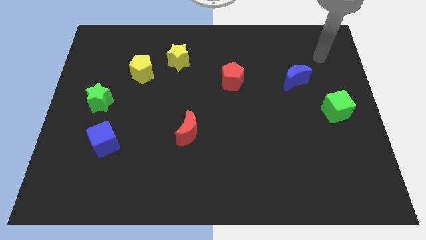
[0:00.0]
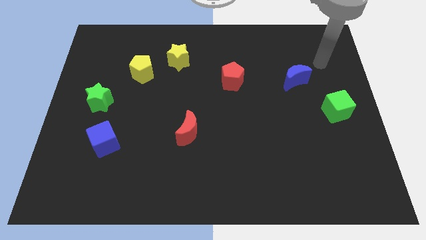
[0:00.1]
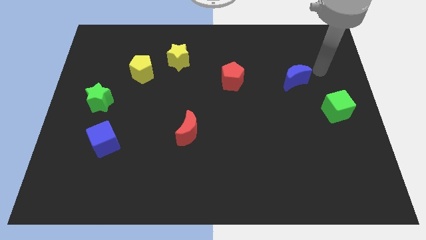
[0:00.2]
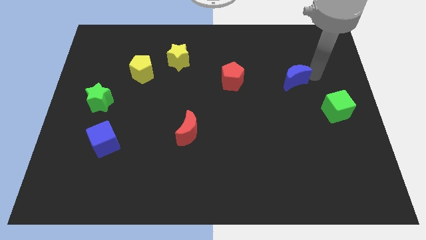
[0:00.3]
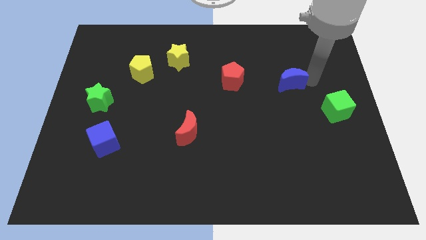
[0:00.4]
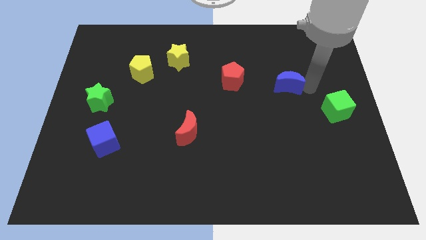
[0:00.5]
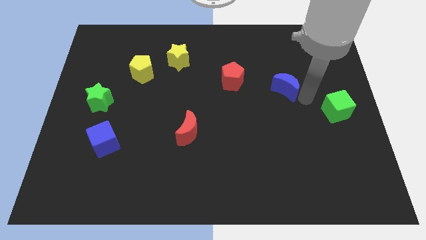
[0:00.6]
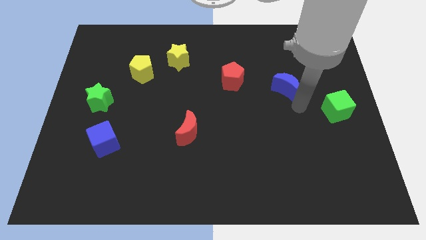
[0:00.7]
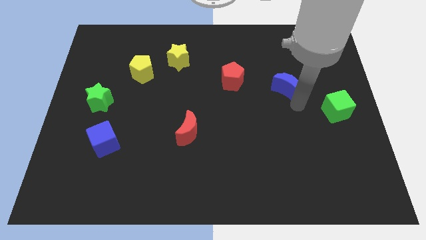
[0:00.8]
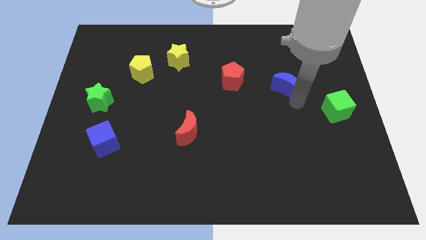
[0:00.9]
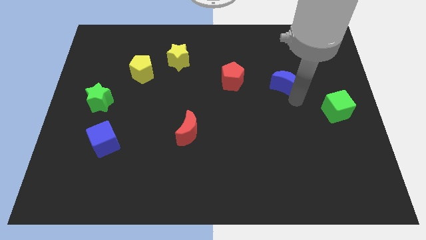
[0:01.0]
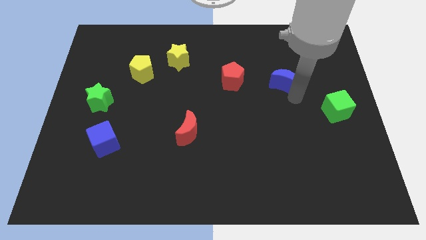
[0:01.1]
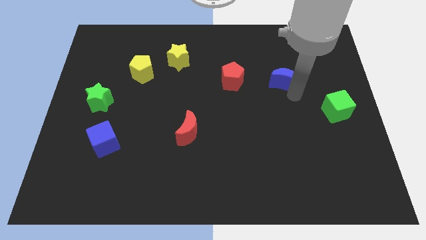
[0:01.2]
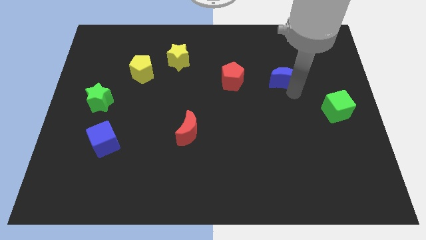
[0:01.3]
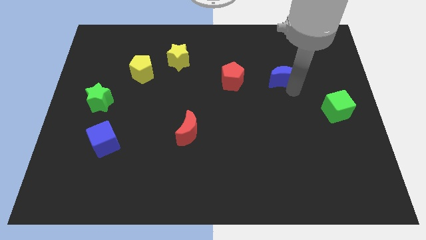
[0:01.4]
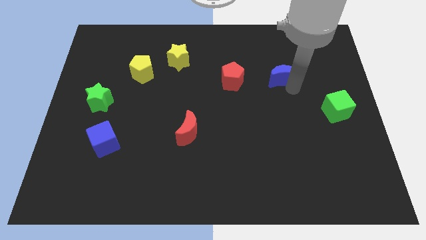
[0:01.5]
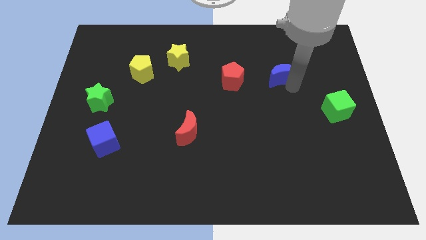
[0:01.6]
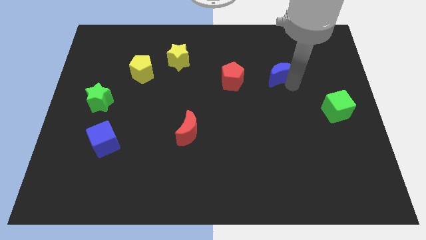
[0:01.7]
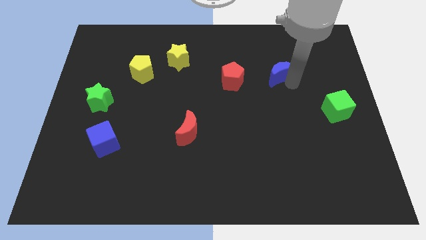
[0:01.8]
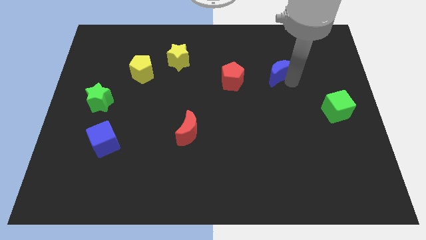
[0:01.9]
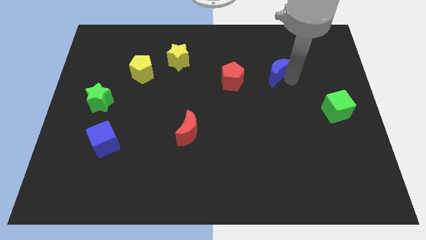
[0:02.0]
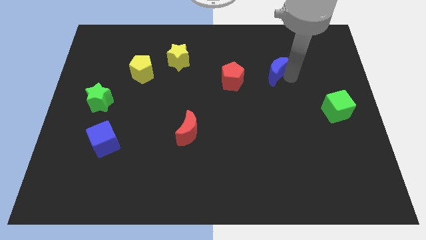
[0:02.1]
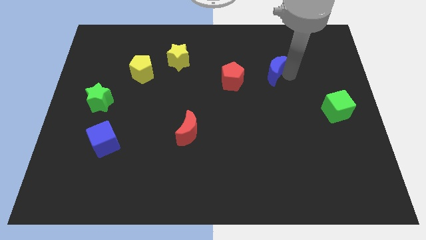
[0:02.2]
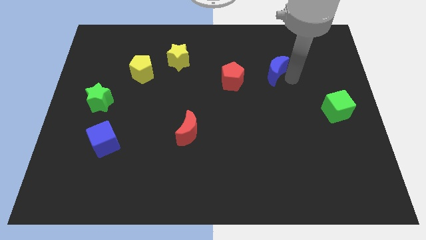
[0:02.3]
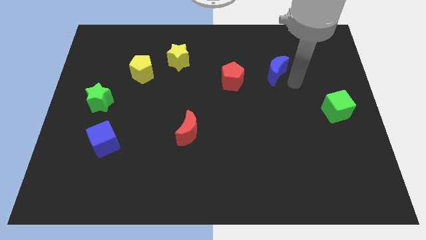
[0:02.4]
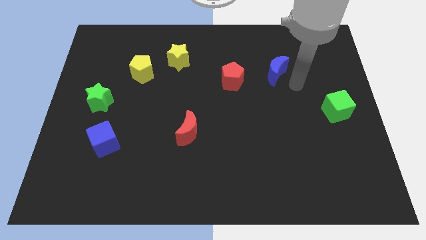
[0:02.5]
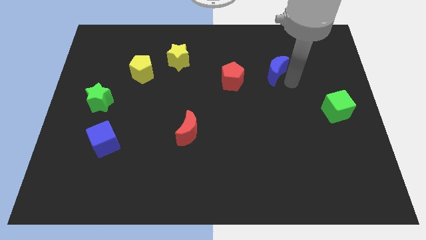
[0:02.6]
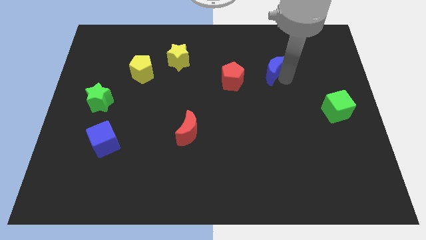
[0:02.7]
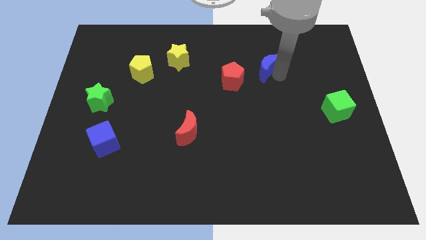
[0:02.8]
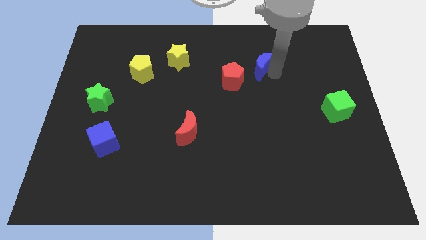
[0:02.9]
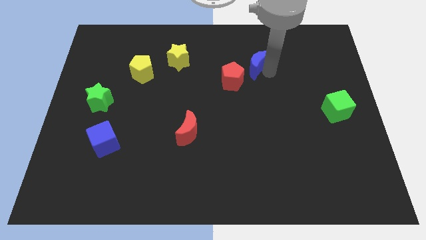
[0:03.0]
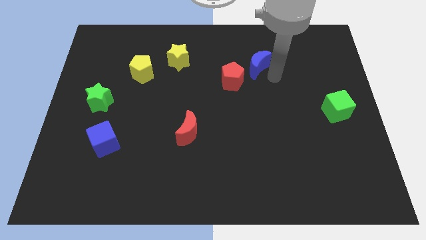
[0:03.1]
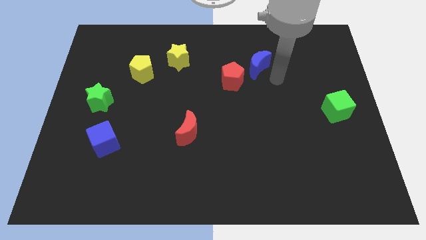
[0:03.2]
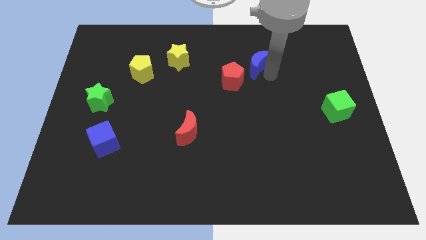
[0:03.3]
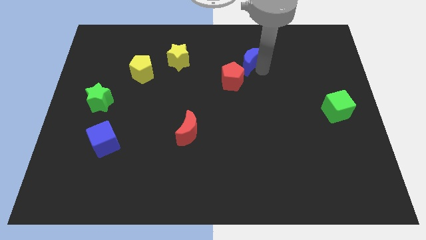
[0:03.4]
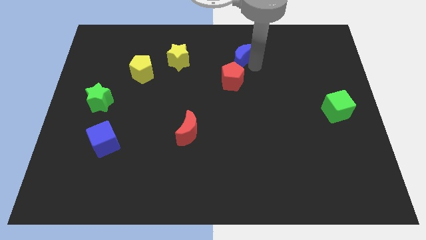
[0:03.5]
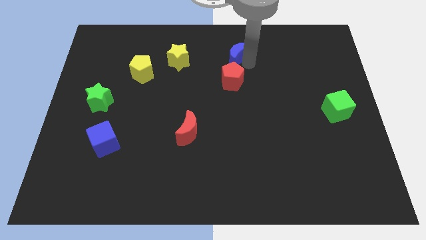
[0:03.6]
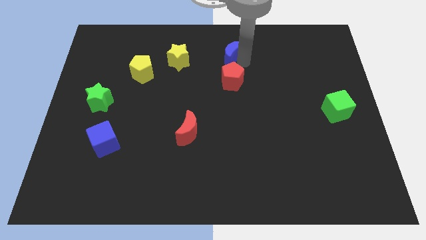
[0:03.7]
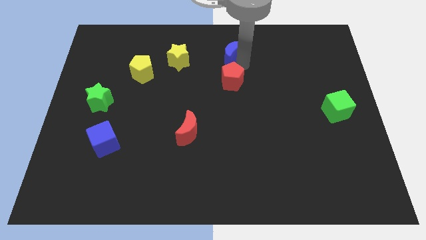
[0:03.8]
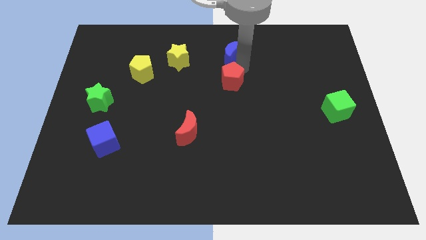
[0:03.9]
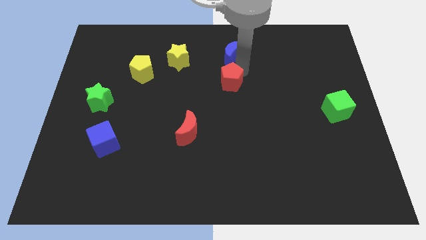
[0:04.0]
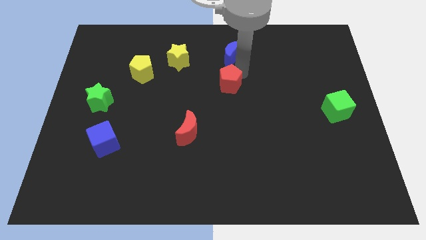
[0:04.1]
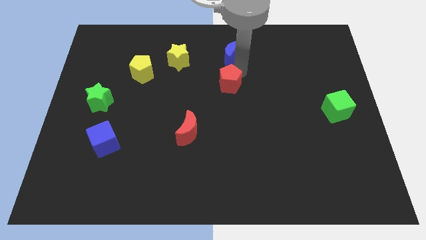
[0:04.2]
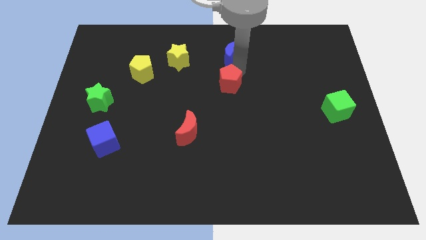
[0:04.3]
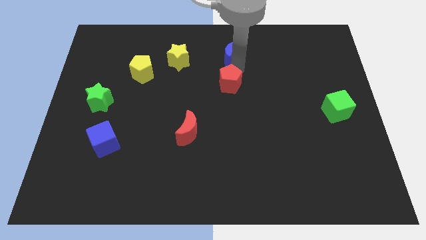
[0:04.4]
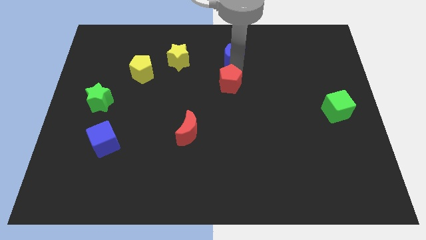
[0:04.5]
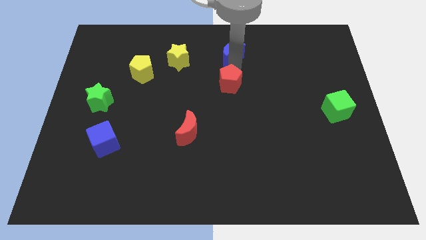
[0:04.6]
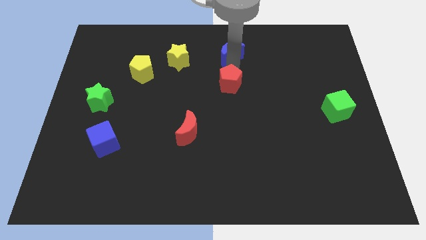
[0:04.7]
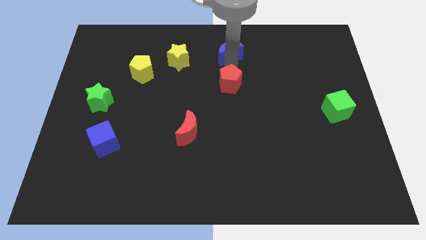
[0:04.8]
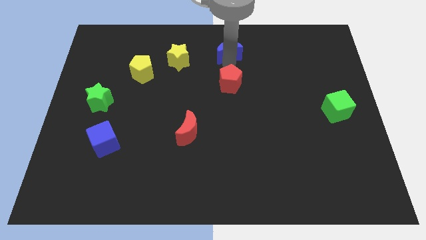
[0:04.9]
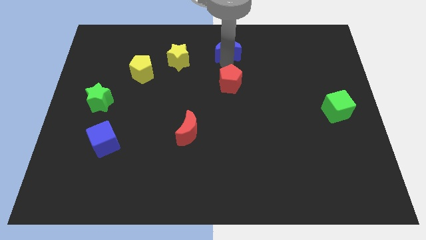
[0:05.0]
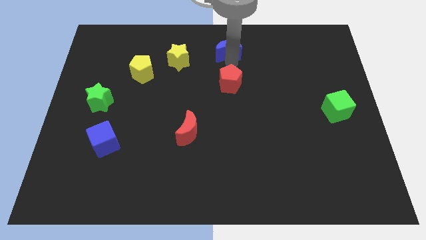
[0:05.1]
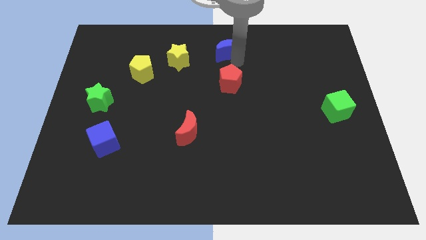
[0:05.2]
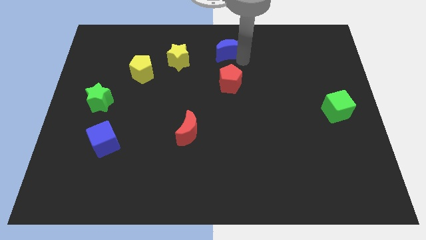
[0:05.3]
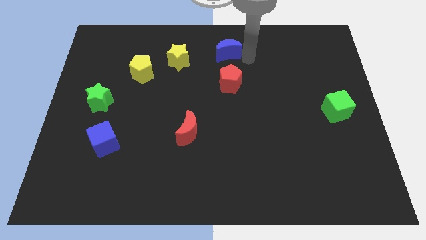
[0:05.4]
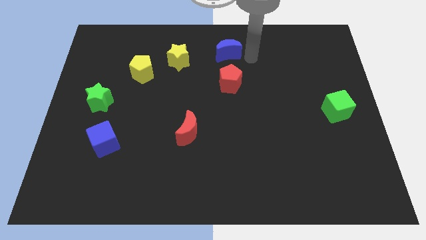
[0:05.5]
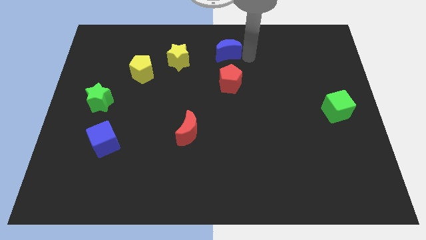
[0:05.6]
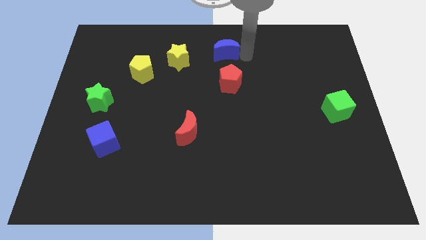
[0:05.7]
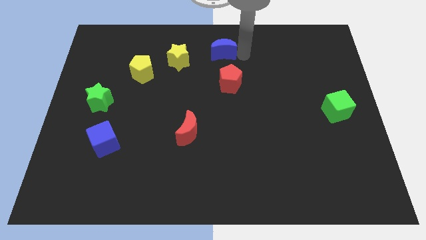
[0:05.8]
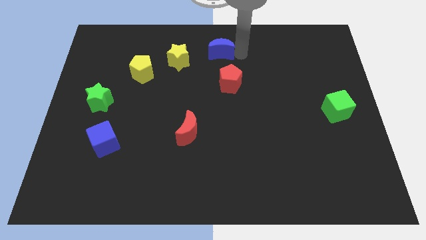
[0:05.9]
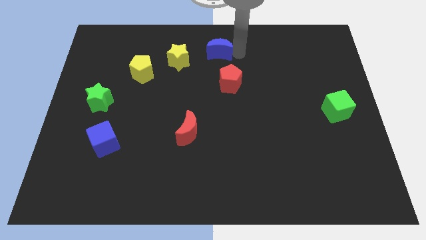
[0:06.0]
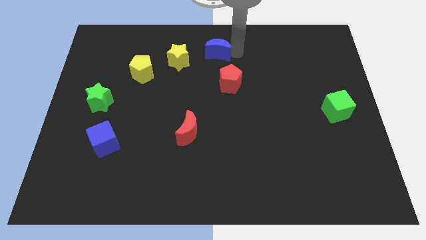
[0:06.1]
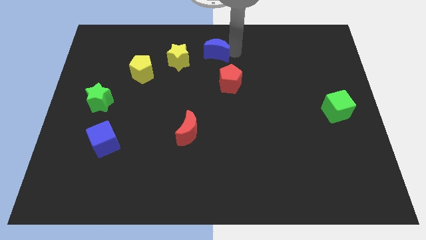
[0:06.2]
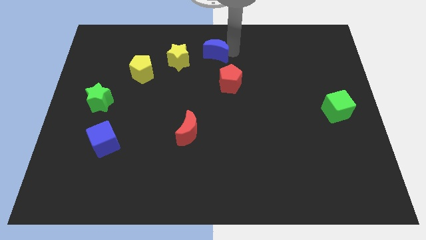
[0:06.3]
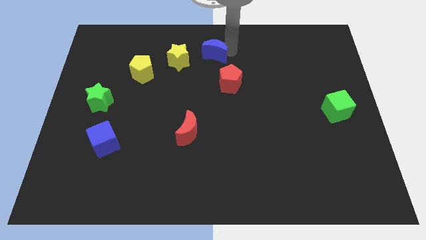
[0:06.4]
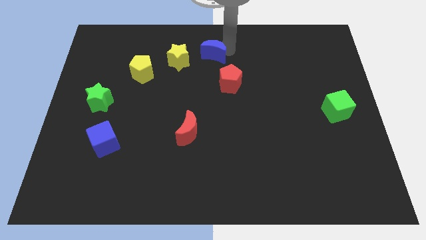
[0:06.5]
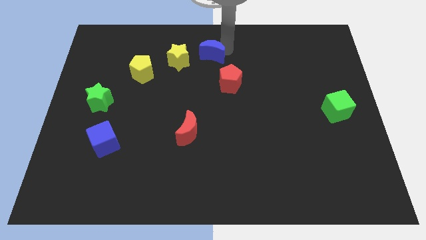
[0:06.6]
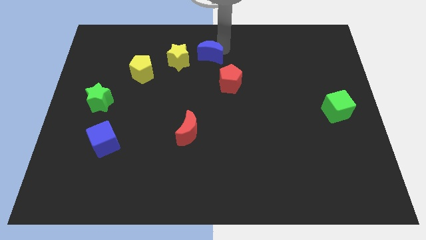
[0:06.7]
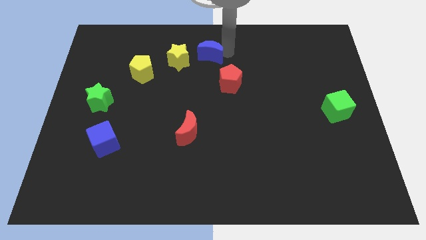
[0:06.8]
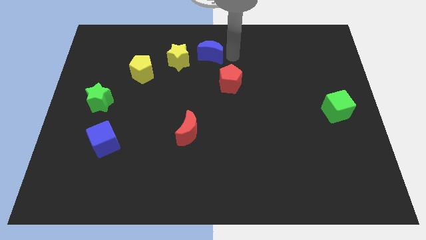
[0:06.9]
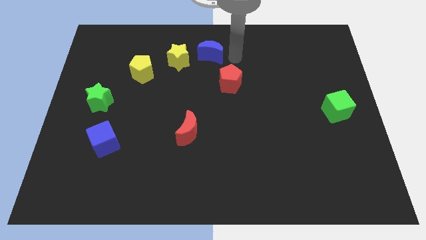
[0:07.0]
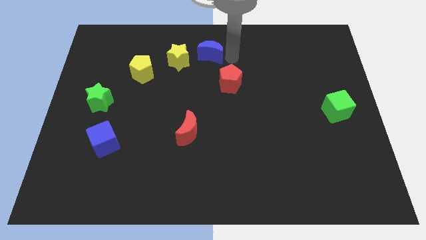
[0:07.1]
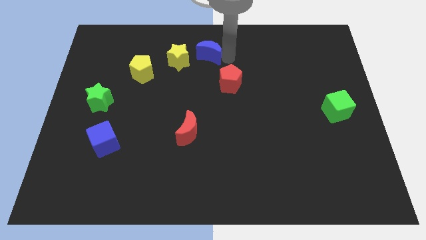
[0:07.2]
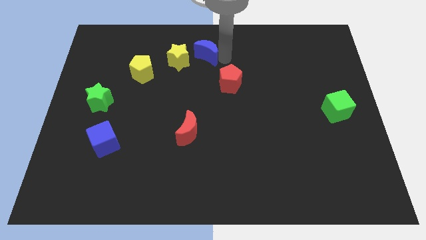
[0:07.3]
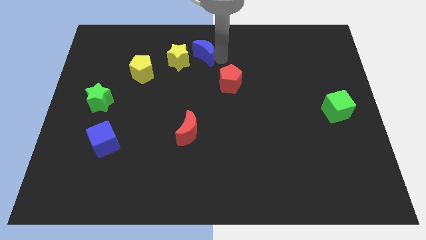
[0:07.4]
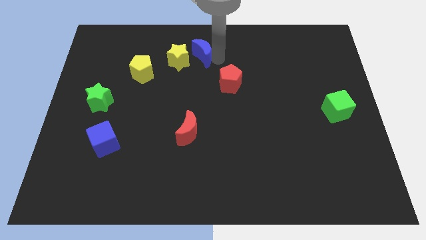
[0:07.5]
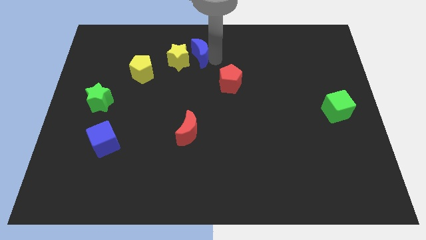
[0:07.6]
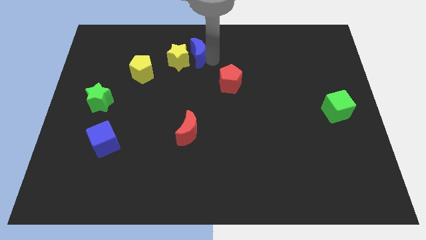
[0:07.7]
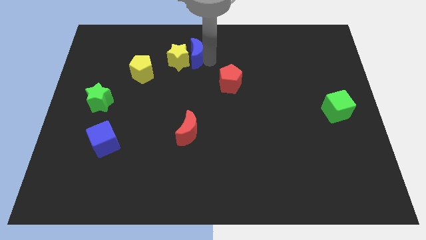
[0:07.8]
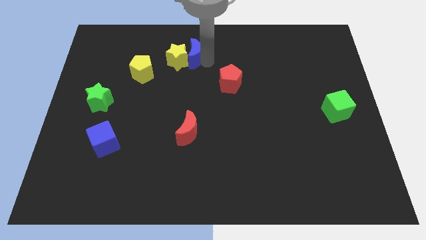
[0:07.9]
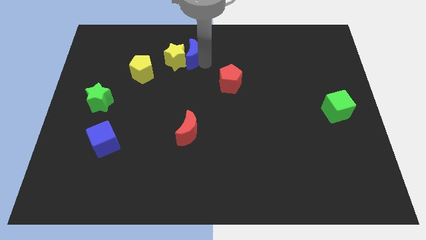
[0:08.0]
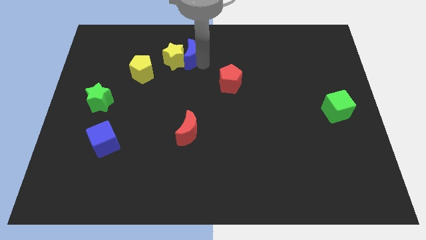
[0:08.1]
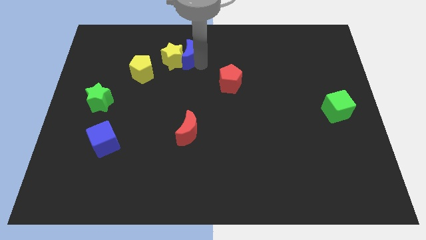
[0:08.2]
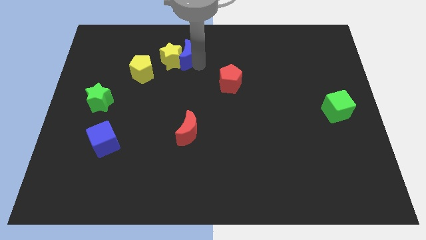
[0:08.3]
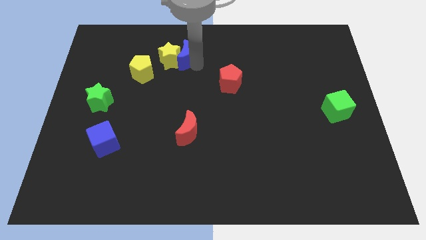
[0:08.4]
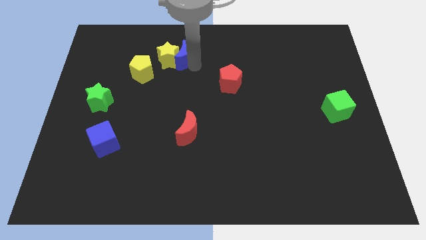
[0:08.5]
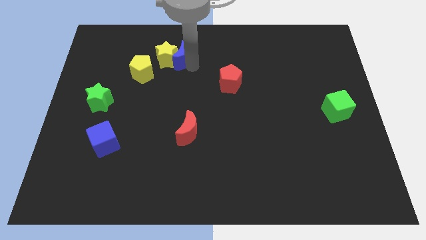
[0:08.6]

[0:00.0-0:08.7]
push the blue moon to the top right of the yellow pentagon
